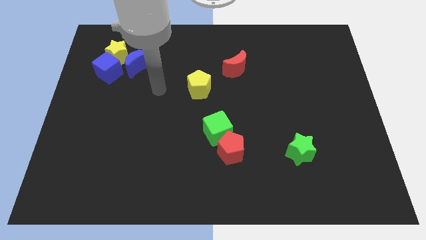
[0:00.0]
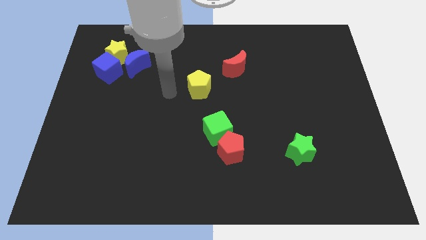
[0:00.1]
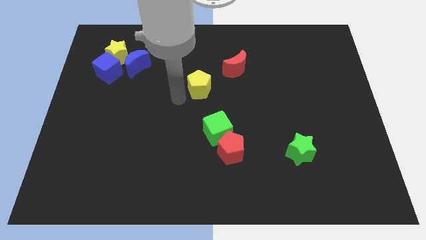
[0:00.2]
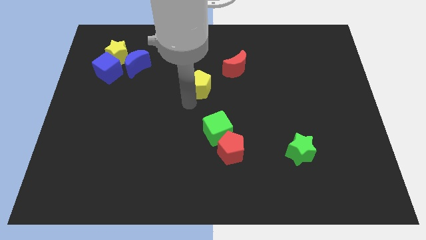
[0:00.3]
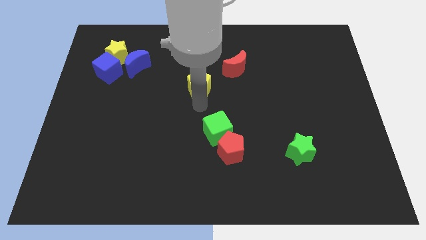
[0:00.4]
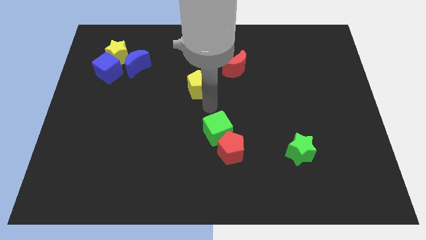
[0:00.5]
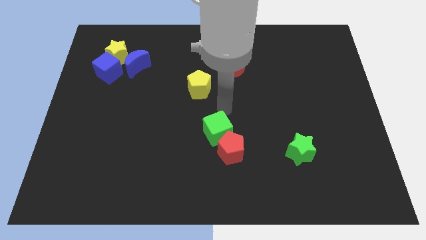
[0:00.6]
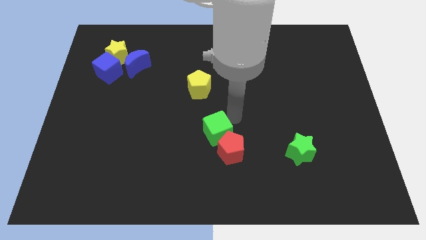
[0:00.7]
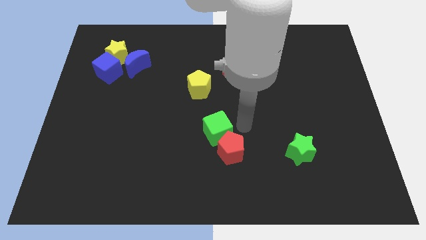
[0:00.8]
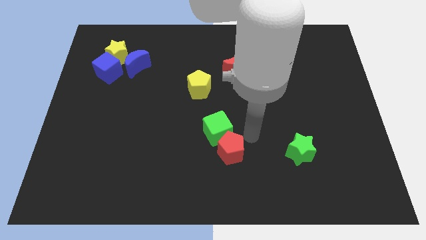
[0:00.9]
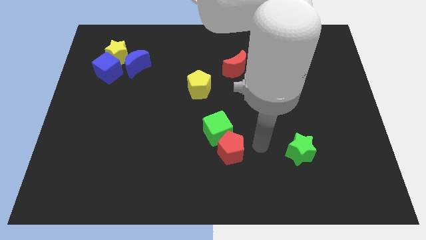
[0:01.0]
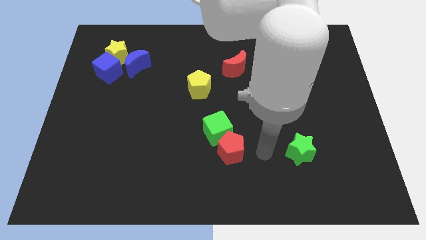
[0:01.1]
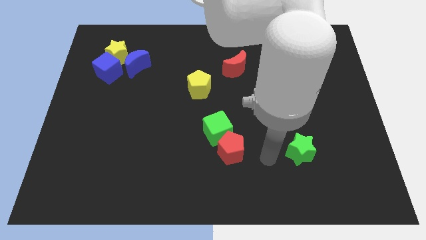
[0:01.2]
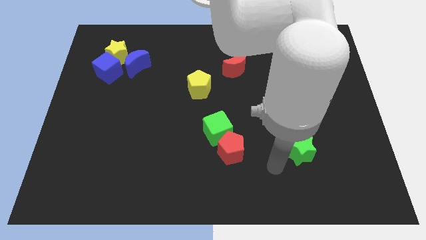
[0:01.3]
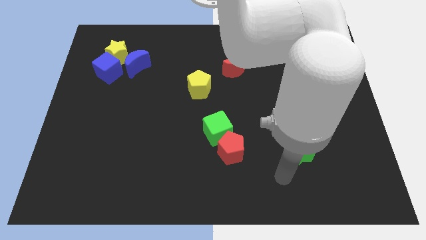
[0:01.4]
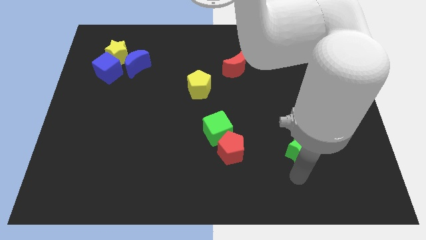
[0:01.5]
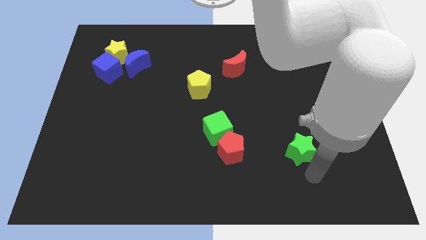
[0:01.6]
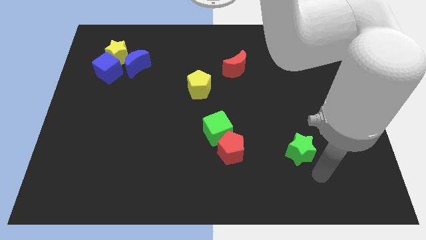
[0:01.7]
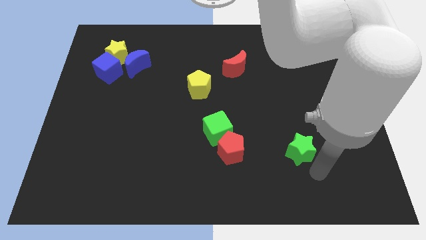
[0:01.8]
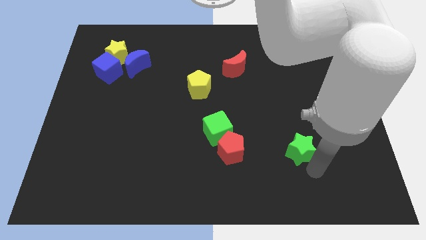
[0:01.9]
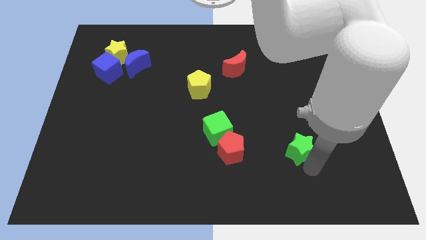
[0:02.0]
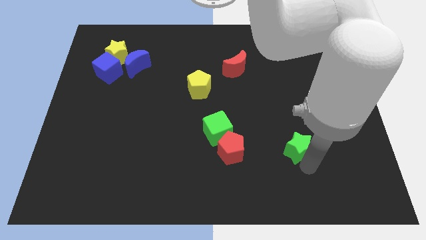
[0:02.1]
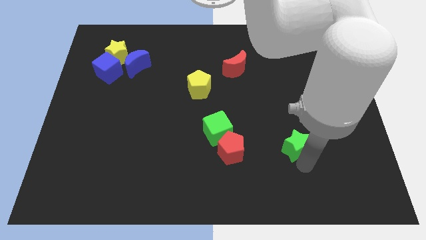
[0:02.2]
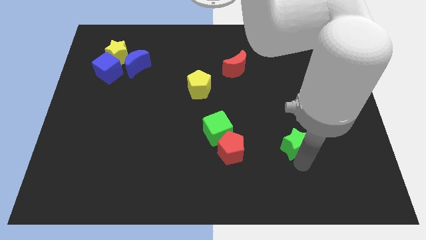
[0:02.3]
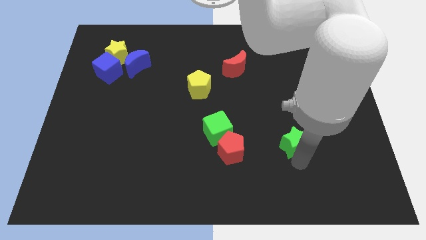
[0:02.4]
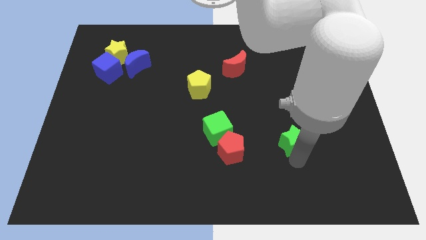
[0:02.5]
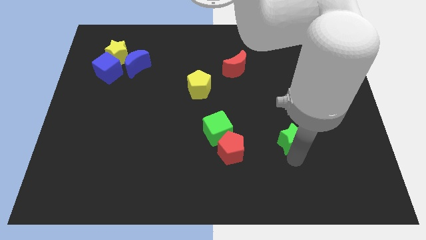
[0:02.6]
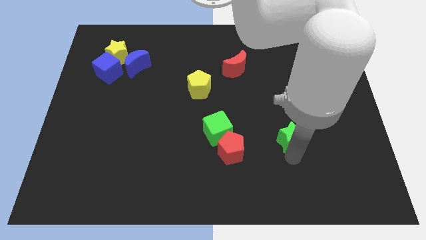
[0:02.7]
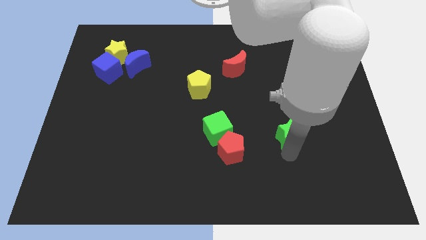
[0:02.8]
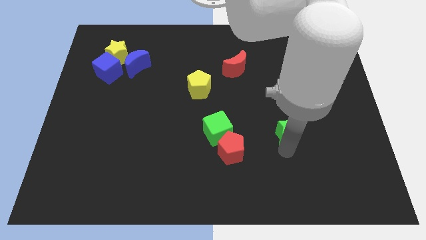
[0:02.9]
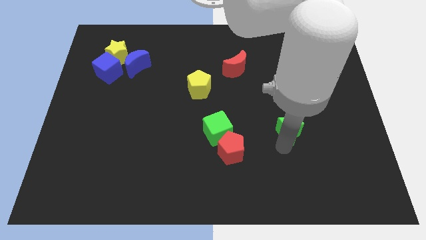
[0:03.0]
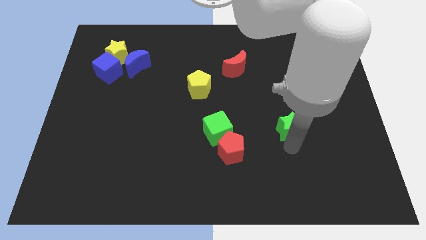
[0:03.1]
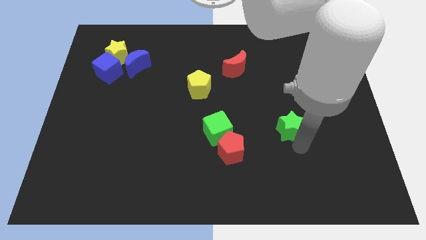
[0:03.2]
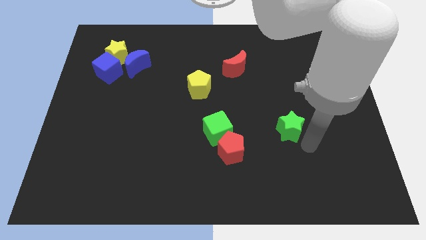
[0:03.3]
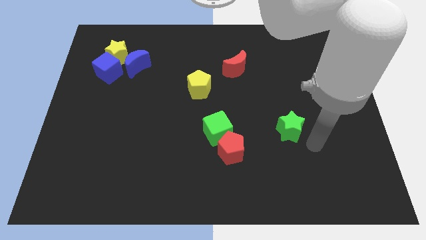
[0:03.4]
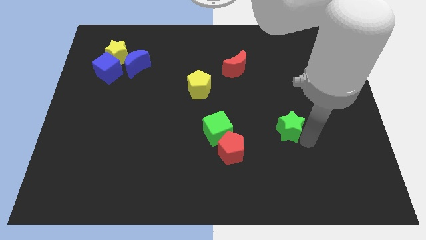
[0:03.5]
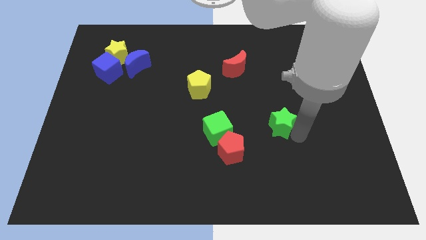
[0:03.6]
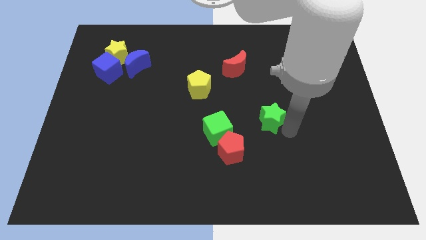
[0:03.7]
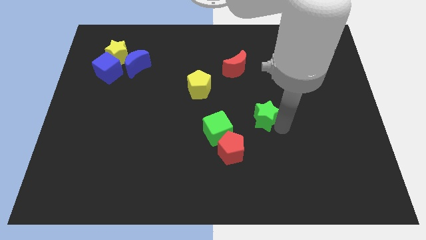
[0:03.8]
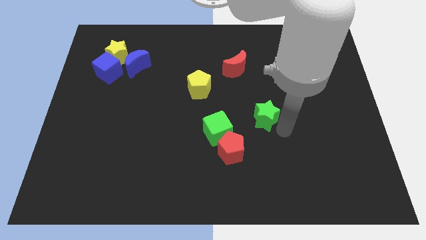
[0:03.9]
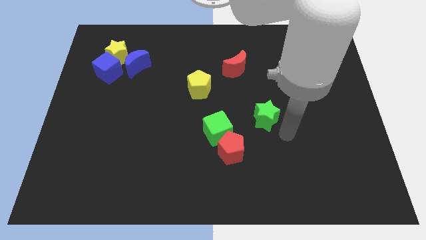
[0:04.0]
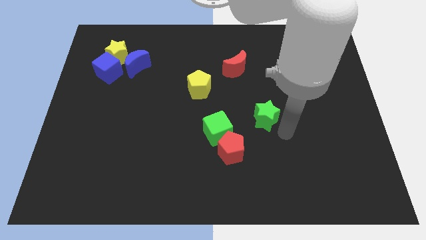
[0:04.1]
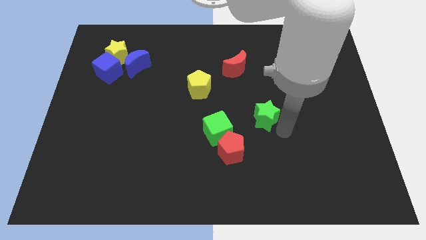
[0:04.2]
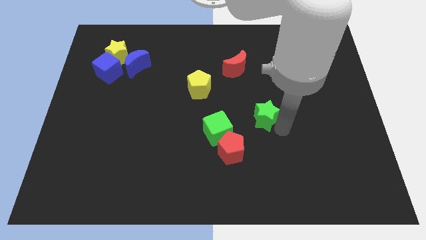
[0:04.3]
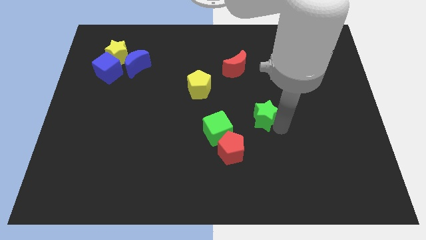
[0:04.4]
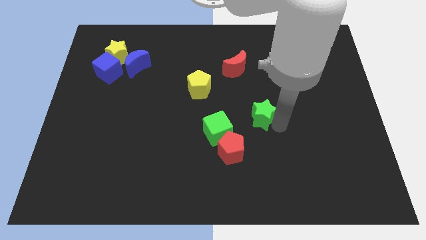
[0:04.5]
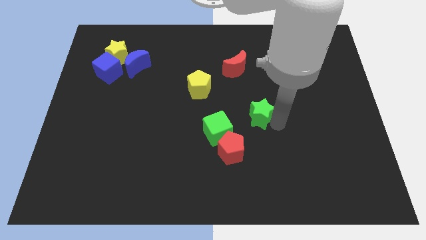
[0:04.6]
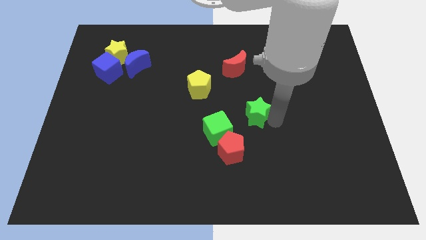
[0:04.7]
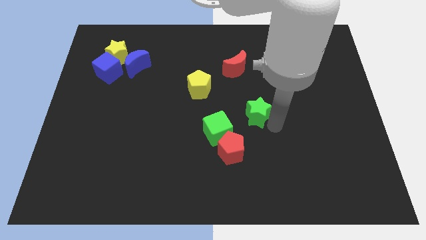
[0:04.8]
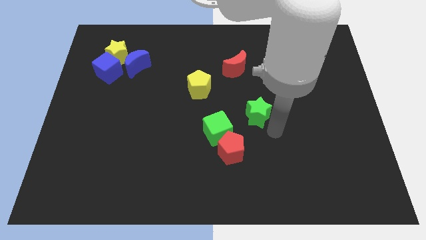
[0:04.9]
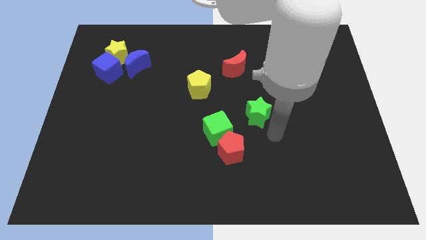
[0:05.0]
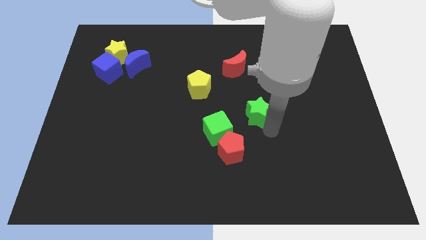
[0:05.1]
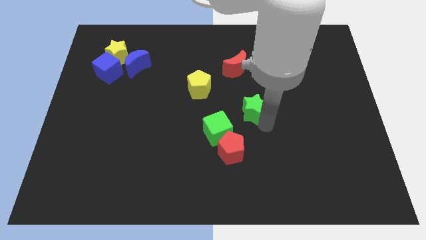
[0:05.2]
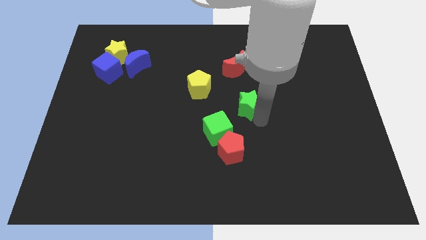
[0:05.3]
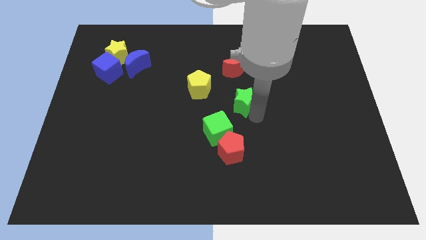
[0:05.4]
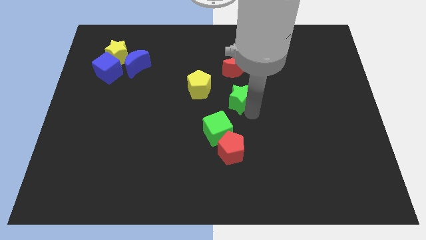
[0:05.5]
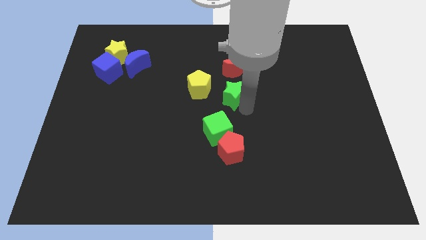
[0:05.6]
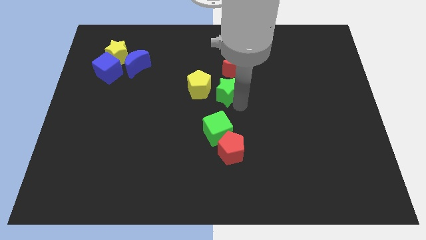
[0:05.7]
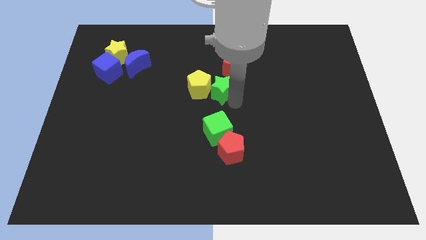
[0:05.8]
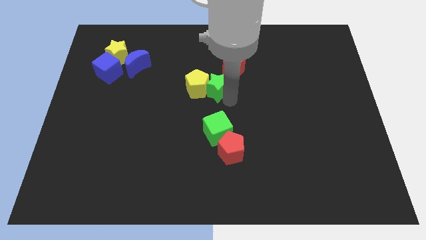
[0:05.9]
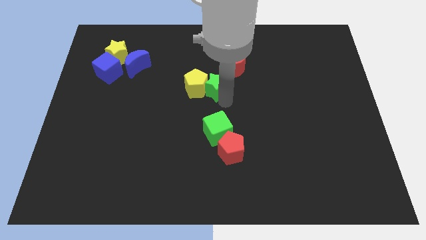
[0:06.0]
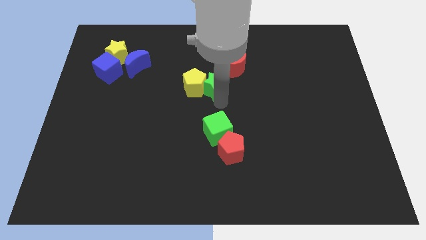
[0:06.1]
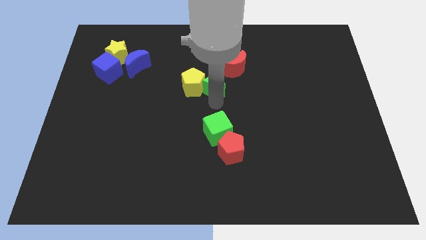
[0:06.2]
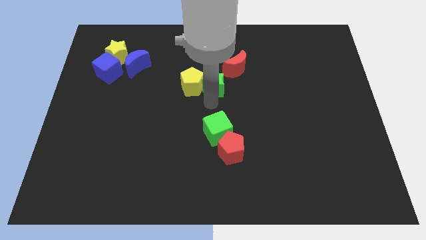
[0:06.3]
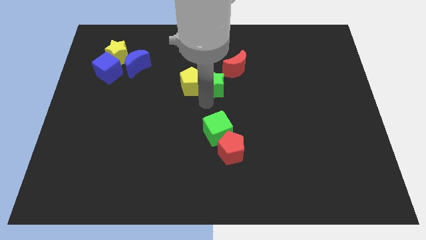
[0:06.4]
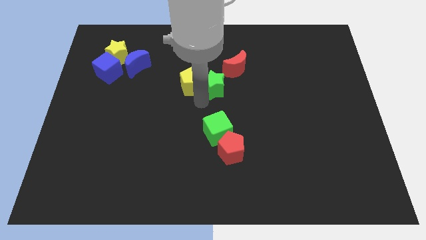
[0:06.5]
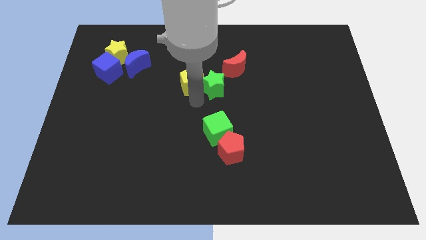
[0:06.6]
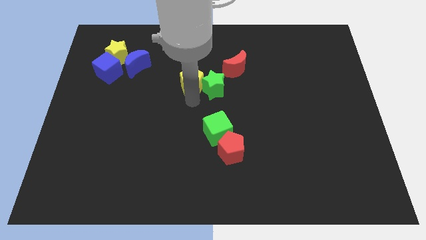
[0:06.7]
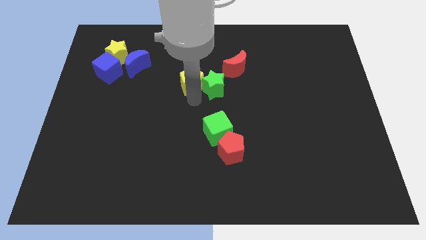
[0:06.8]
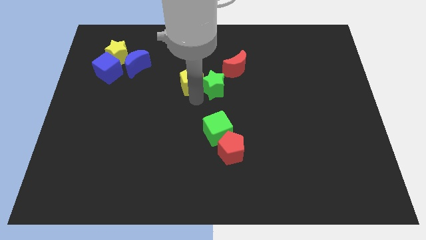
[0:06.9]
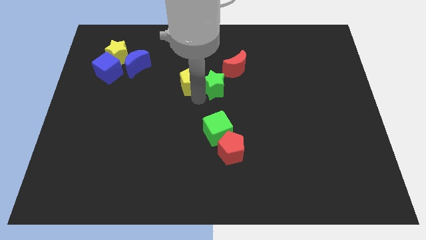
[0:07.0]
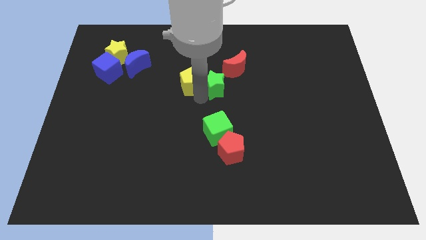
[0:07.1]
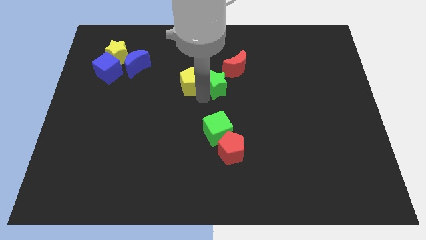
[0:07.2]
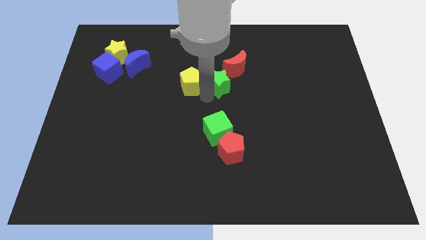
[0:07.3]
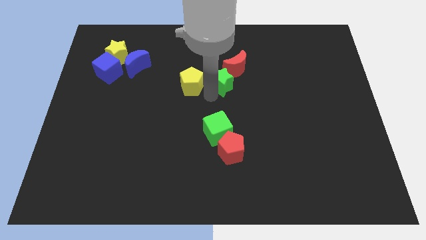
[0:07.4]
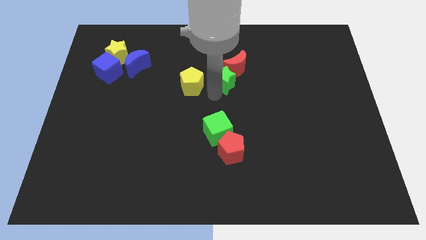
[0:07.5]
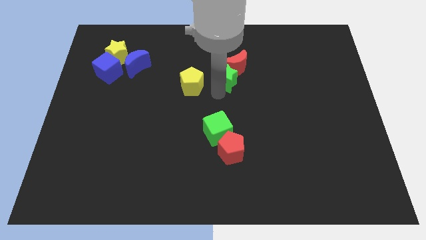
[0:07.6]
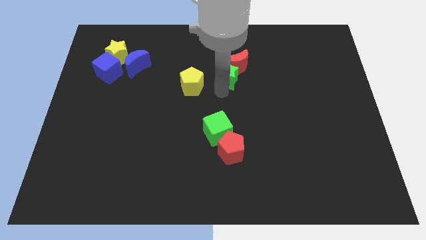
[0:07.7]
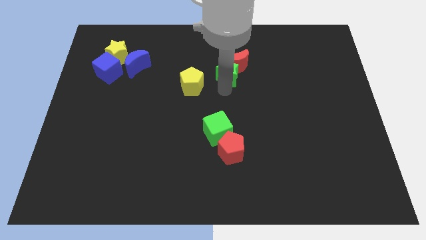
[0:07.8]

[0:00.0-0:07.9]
move the green star to the left of the red moon
